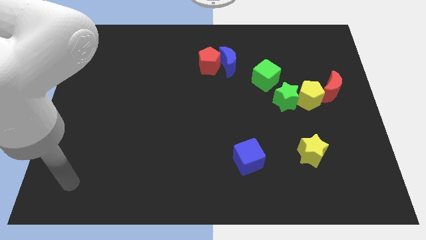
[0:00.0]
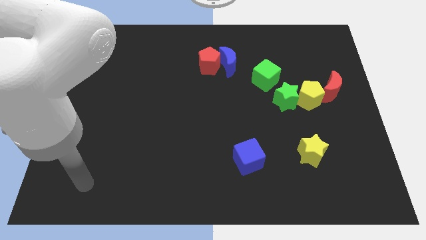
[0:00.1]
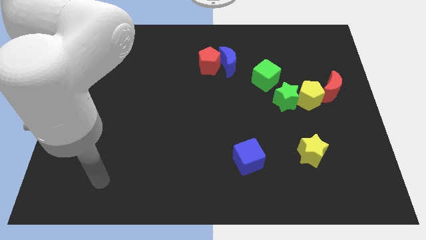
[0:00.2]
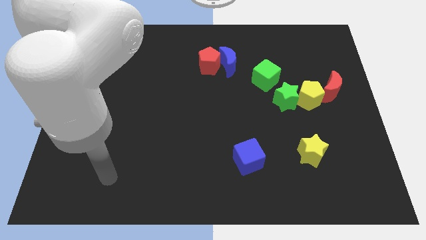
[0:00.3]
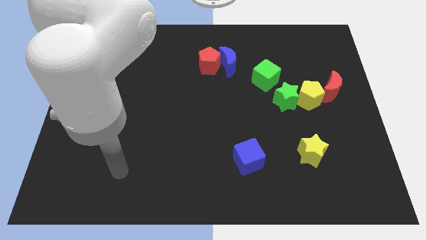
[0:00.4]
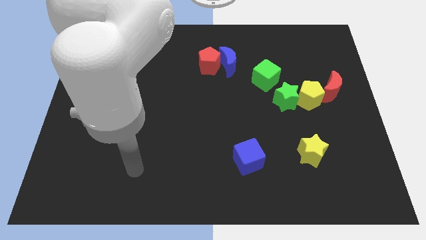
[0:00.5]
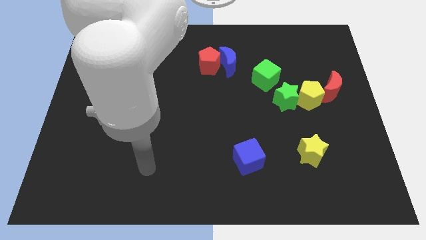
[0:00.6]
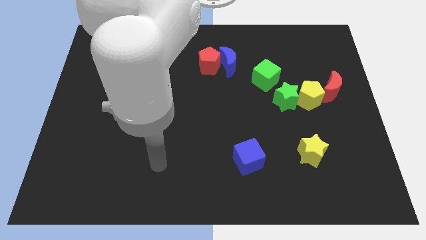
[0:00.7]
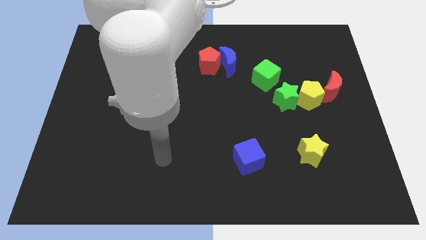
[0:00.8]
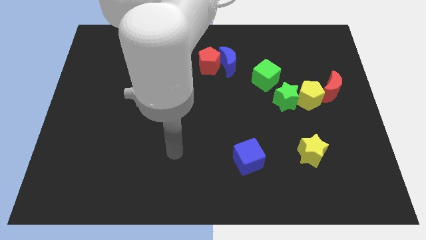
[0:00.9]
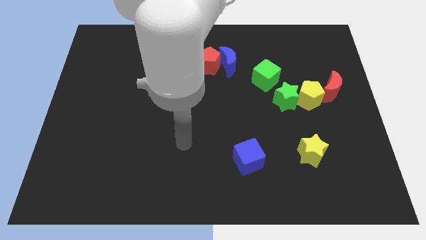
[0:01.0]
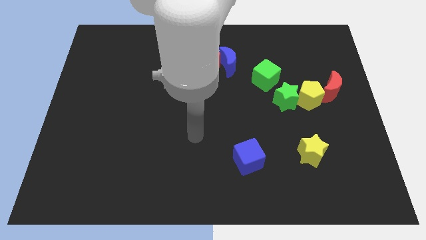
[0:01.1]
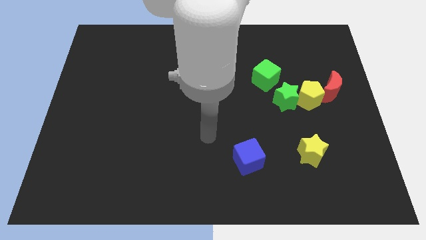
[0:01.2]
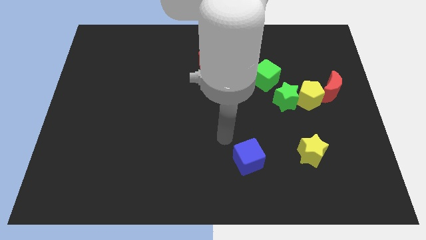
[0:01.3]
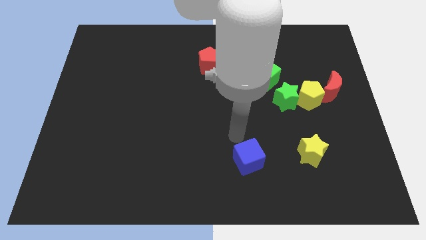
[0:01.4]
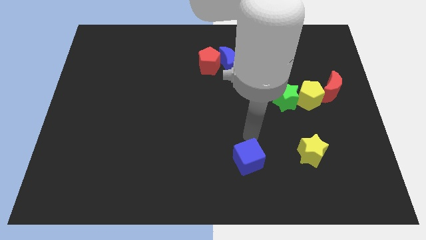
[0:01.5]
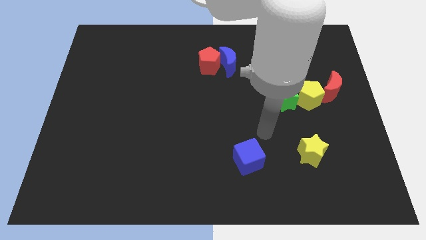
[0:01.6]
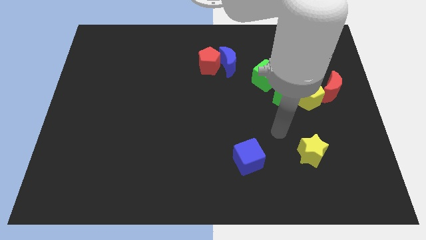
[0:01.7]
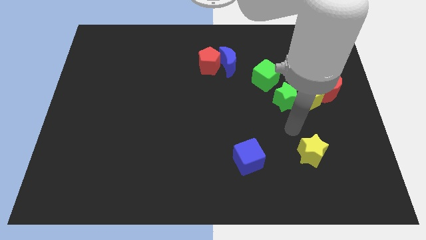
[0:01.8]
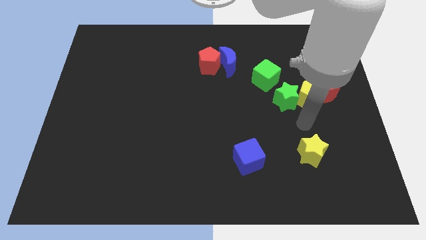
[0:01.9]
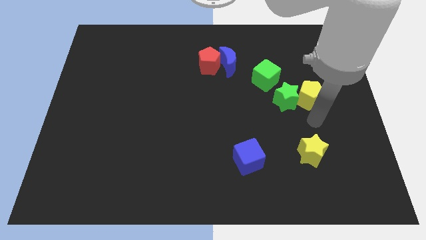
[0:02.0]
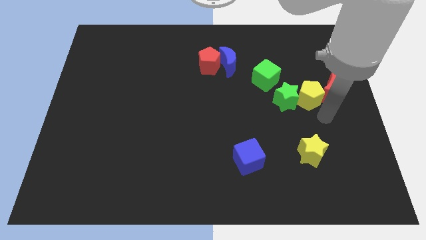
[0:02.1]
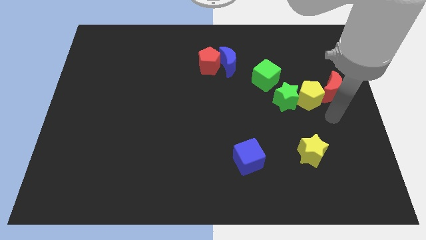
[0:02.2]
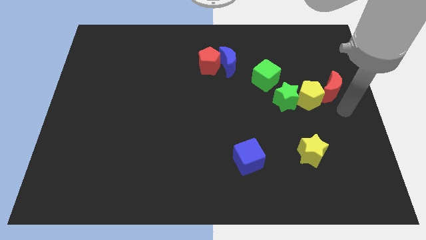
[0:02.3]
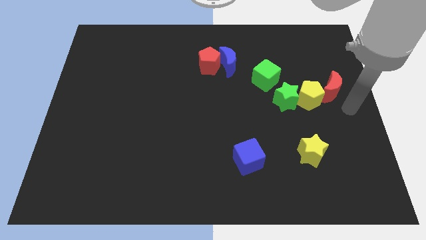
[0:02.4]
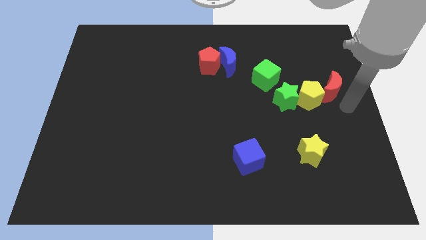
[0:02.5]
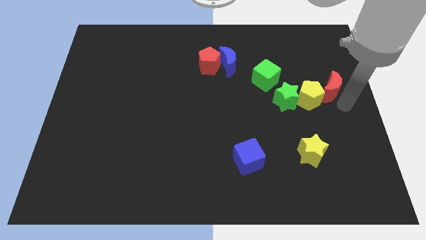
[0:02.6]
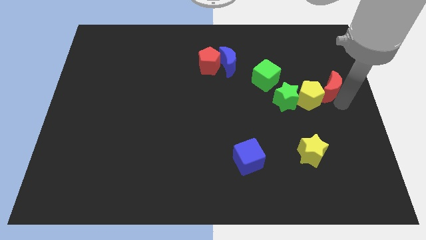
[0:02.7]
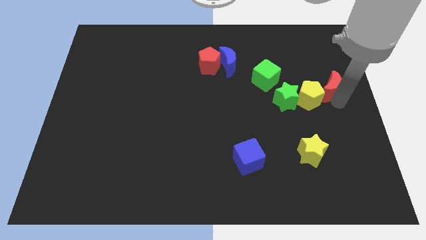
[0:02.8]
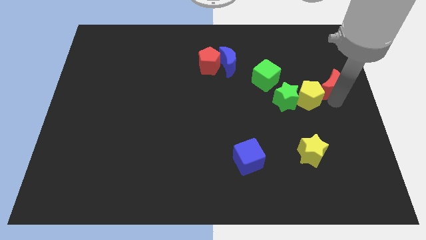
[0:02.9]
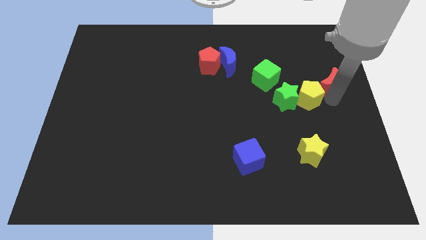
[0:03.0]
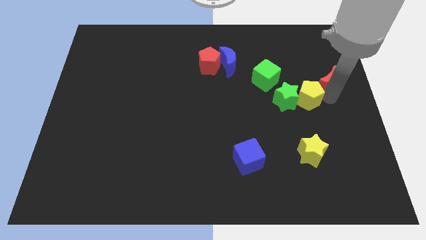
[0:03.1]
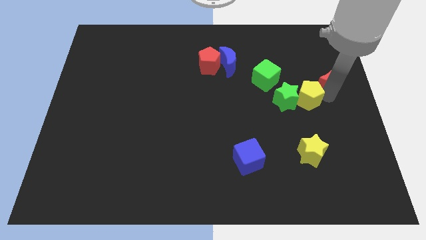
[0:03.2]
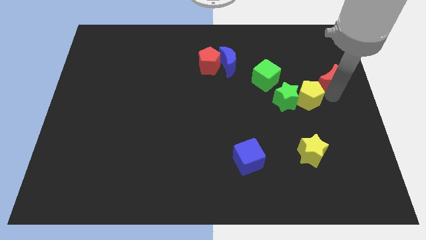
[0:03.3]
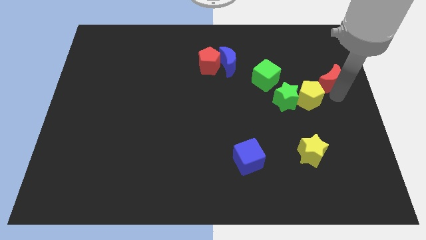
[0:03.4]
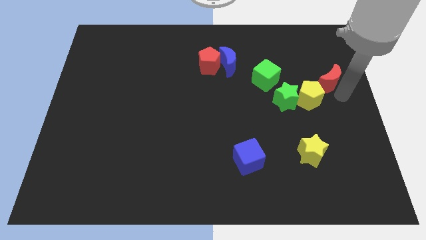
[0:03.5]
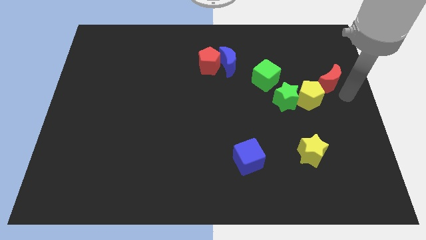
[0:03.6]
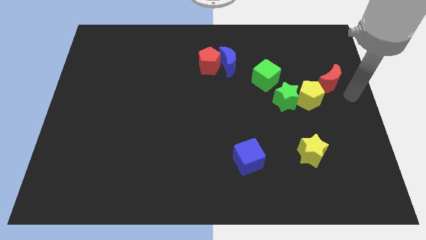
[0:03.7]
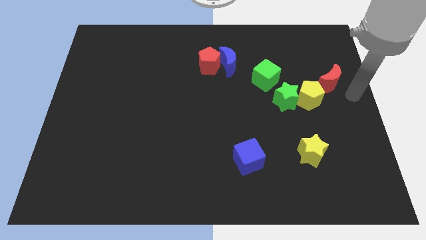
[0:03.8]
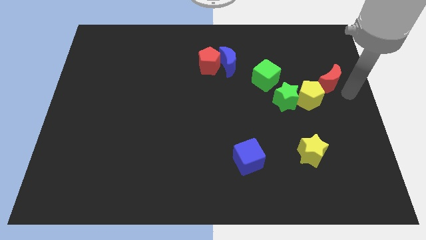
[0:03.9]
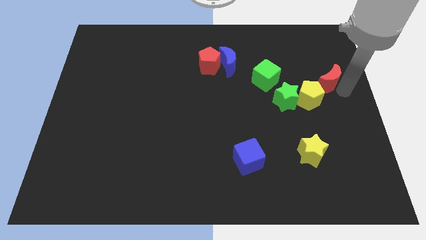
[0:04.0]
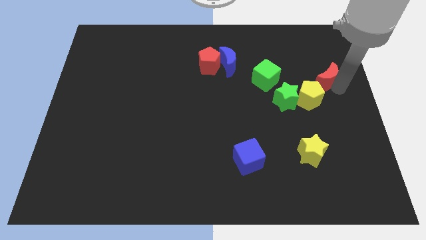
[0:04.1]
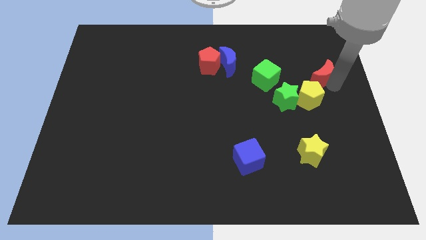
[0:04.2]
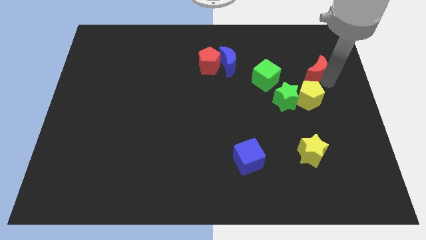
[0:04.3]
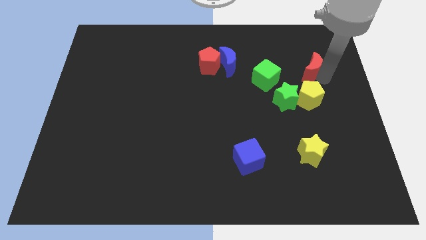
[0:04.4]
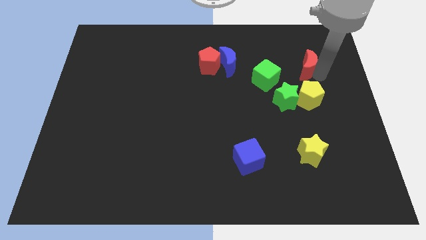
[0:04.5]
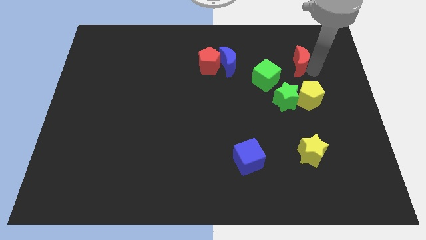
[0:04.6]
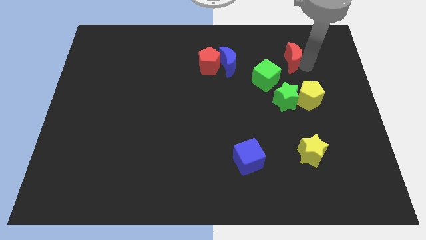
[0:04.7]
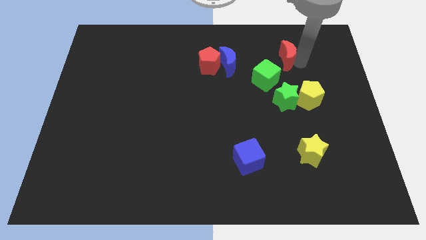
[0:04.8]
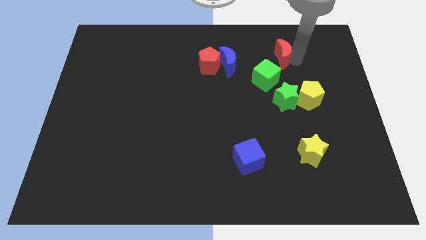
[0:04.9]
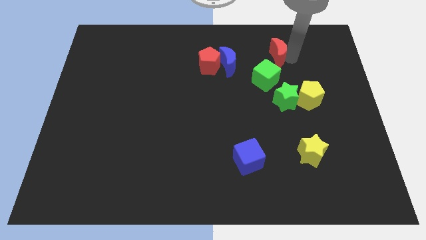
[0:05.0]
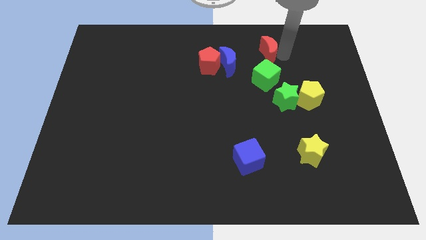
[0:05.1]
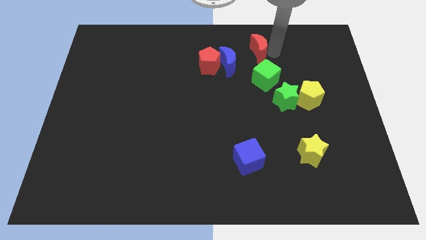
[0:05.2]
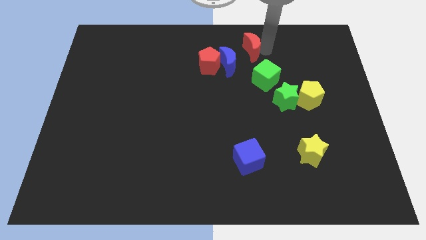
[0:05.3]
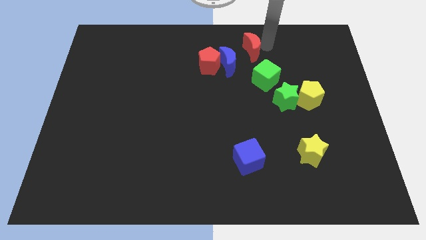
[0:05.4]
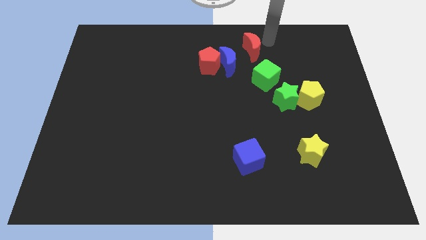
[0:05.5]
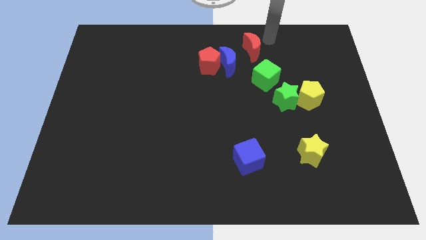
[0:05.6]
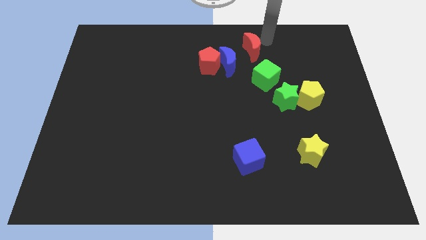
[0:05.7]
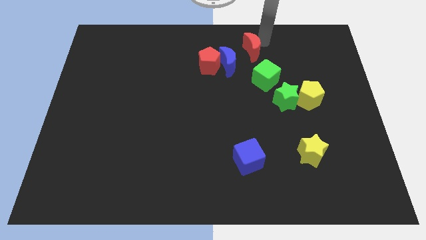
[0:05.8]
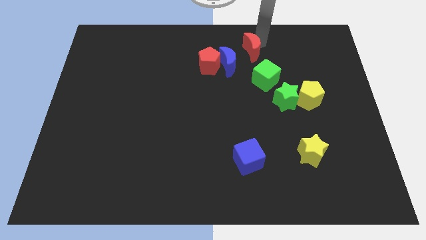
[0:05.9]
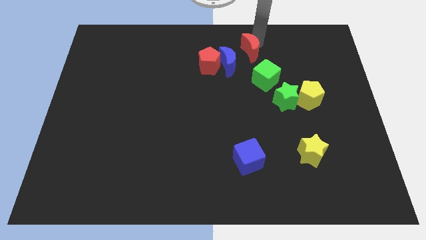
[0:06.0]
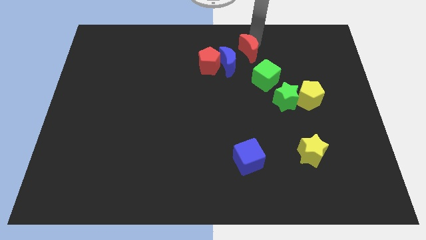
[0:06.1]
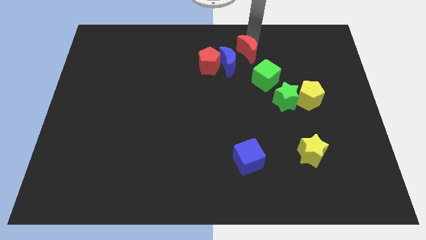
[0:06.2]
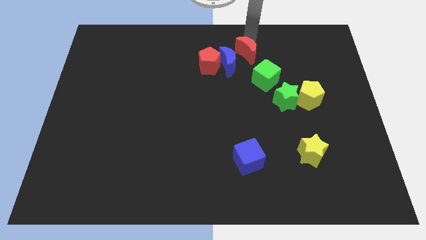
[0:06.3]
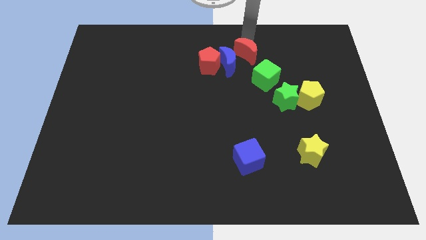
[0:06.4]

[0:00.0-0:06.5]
put the red moon to the blue moon
